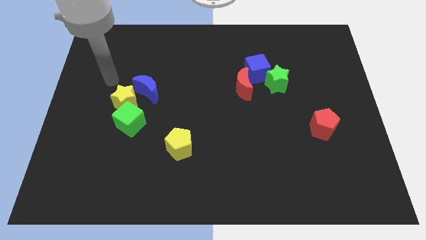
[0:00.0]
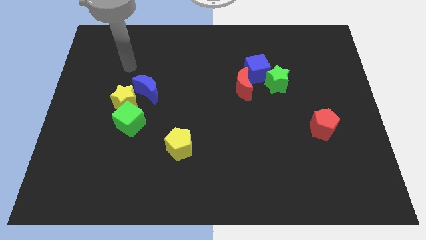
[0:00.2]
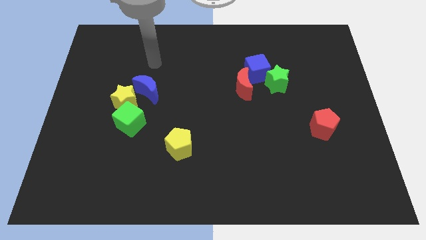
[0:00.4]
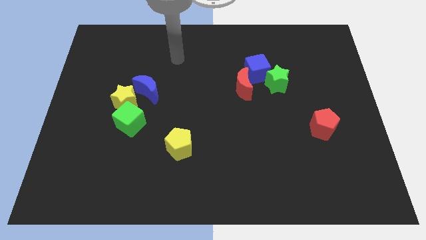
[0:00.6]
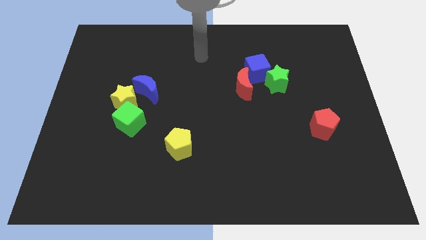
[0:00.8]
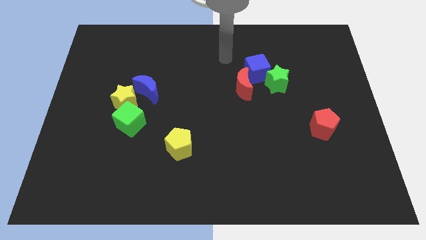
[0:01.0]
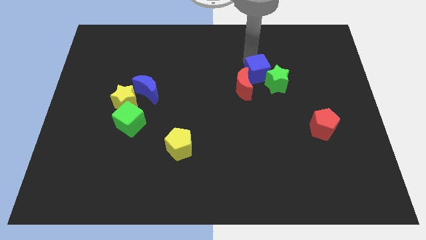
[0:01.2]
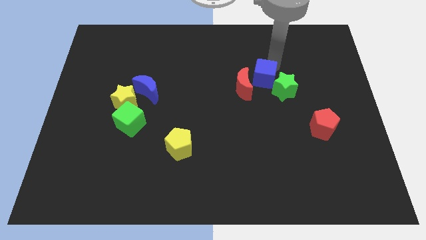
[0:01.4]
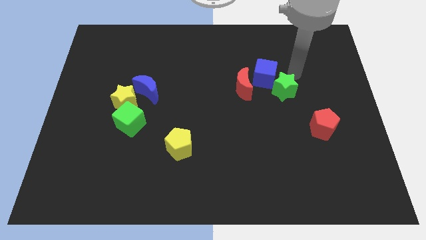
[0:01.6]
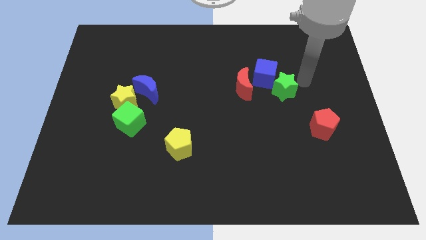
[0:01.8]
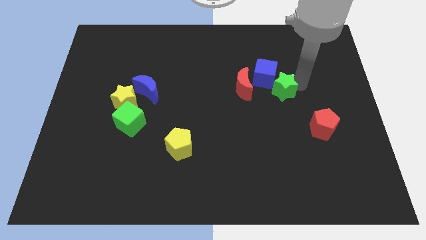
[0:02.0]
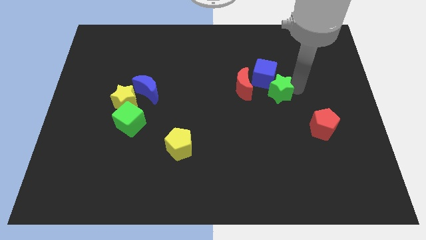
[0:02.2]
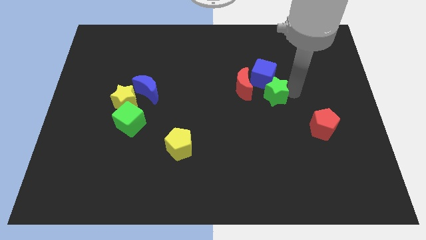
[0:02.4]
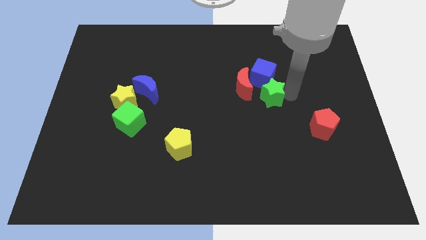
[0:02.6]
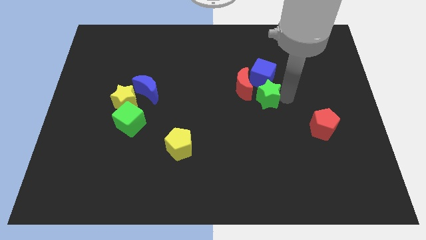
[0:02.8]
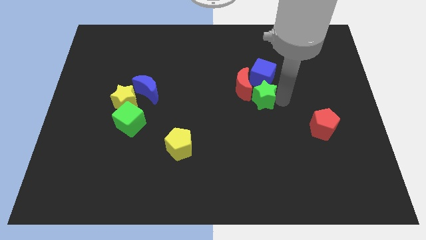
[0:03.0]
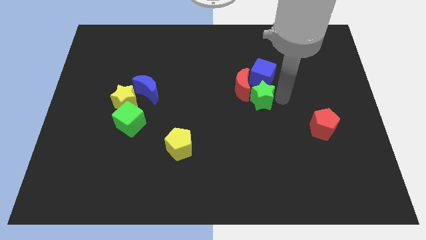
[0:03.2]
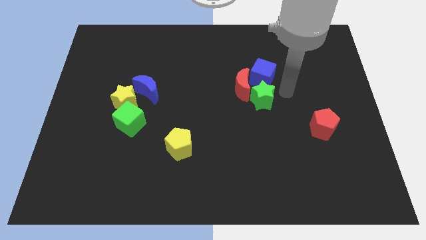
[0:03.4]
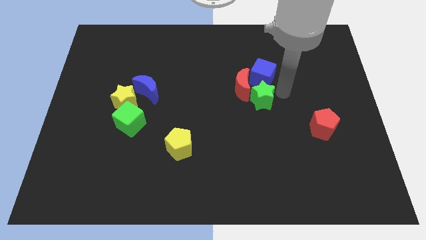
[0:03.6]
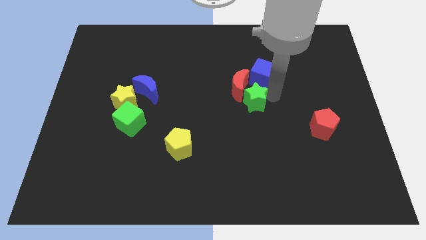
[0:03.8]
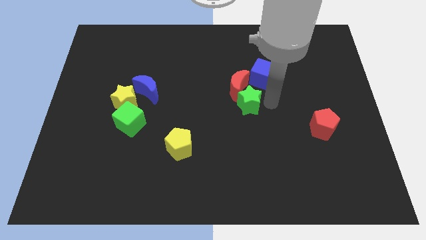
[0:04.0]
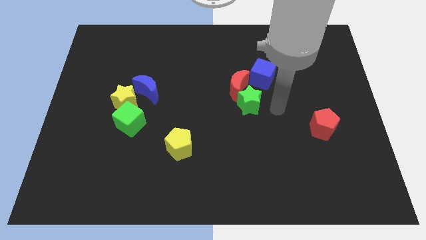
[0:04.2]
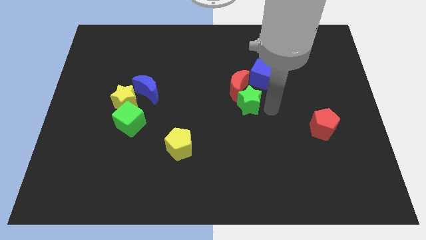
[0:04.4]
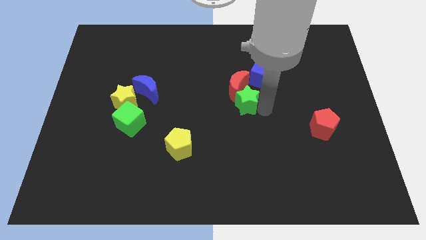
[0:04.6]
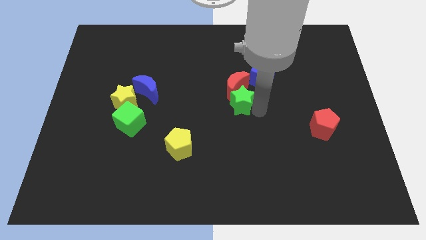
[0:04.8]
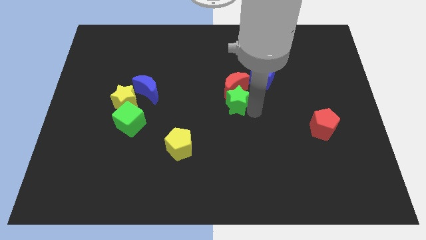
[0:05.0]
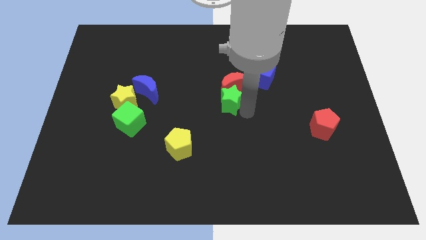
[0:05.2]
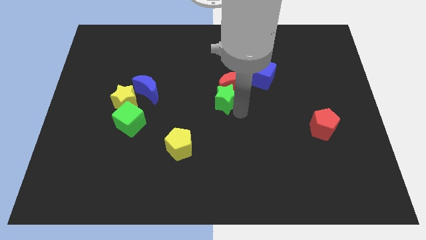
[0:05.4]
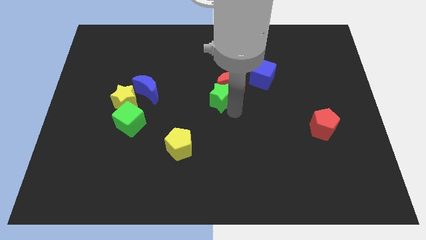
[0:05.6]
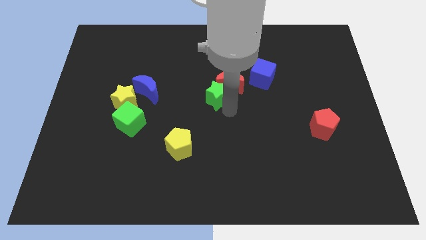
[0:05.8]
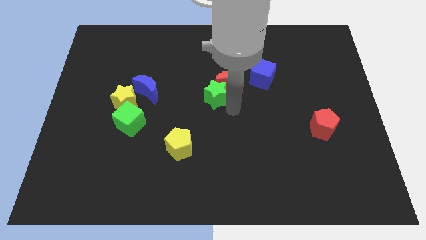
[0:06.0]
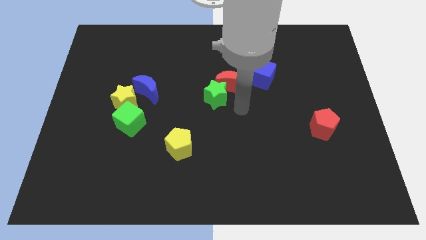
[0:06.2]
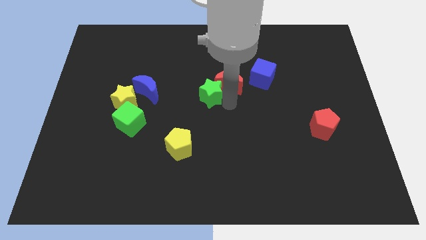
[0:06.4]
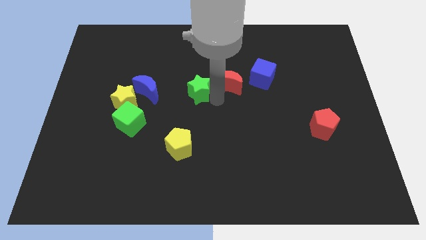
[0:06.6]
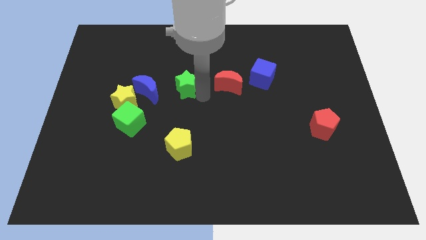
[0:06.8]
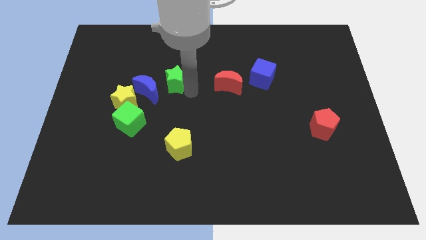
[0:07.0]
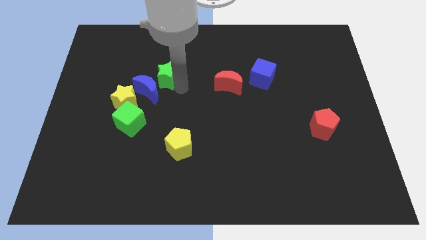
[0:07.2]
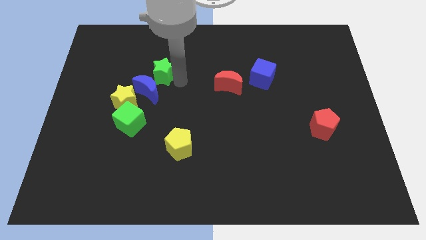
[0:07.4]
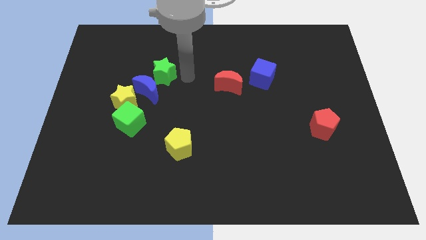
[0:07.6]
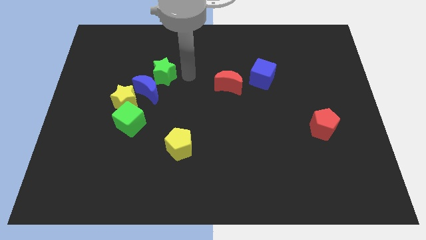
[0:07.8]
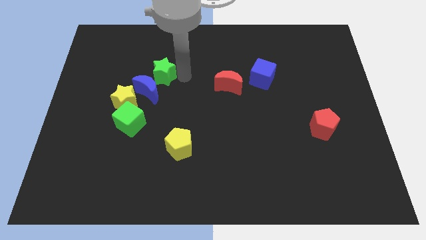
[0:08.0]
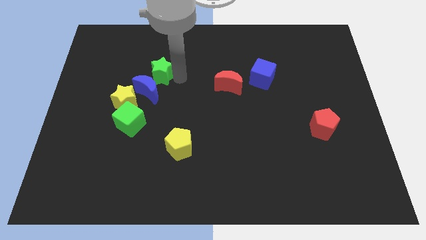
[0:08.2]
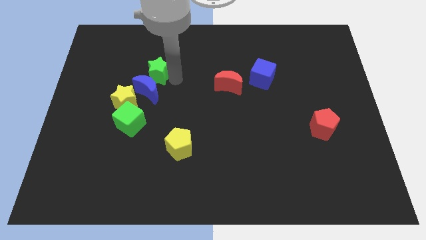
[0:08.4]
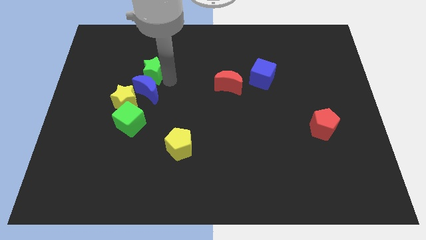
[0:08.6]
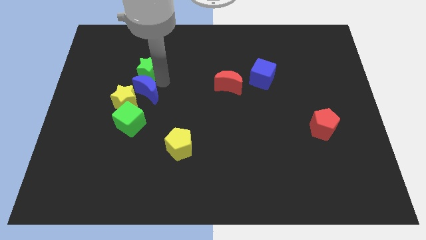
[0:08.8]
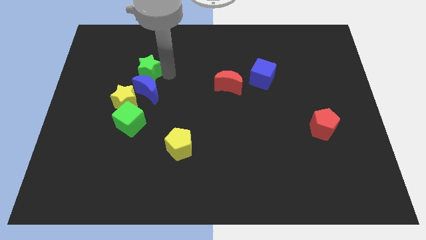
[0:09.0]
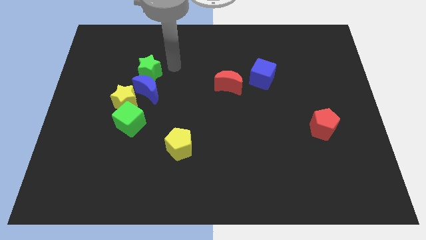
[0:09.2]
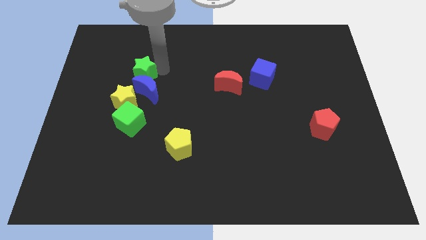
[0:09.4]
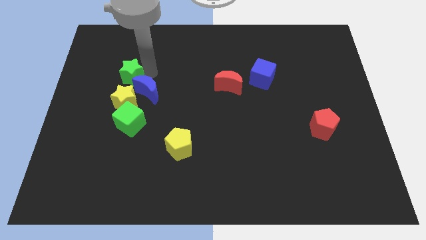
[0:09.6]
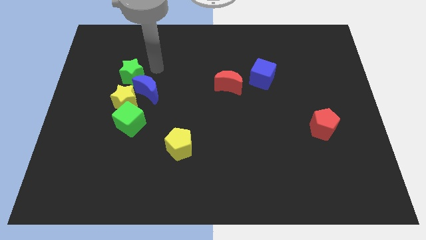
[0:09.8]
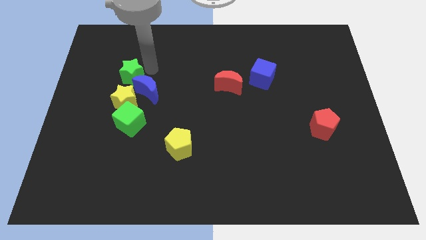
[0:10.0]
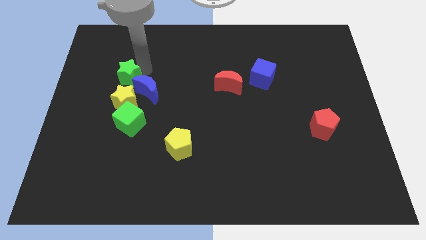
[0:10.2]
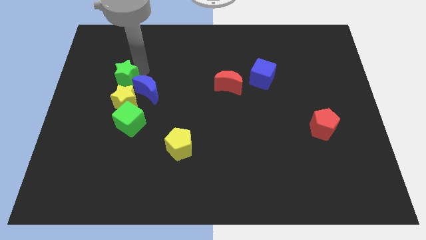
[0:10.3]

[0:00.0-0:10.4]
push the green star diagonally up and to the left of the yellow star

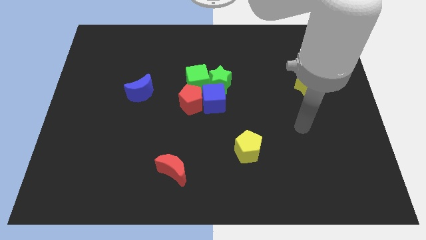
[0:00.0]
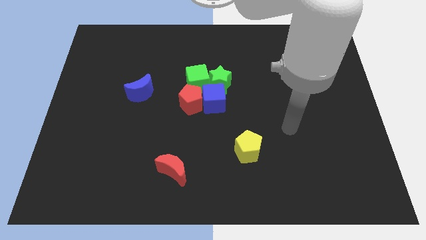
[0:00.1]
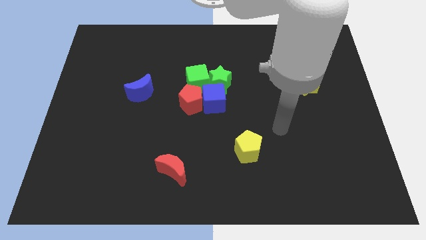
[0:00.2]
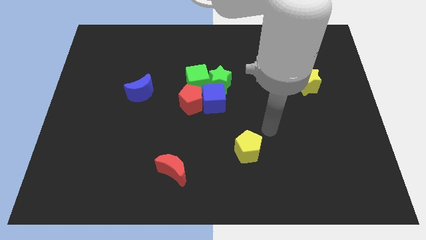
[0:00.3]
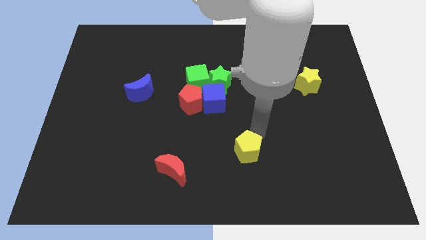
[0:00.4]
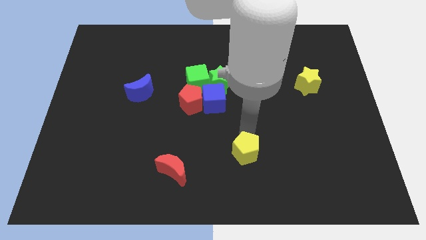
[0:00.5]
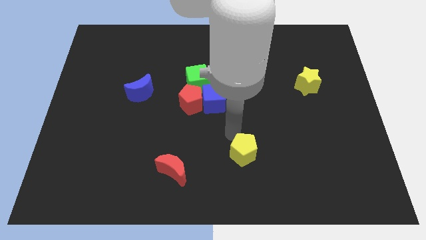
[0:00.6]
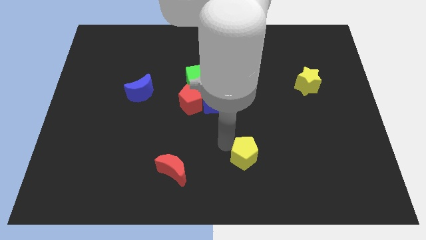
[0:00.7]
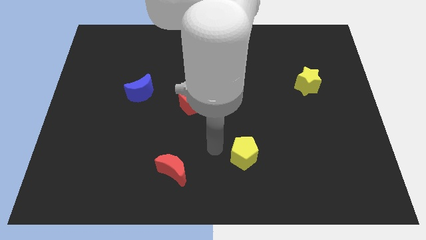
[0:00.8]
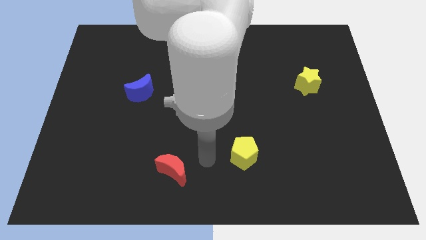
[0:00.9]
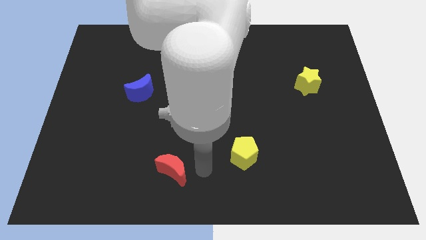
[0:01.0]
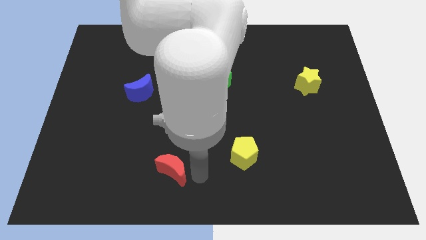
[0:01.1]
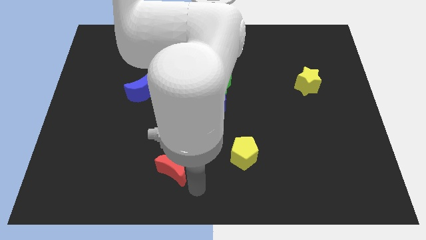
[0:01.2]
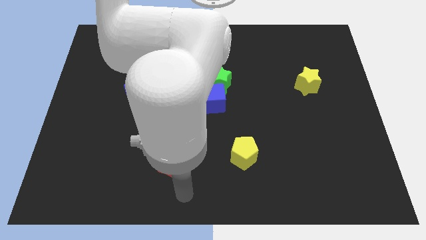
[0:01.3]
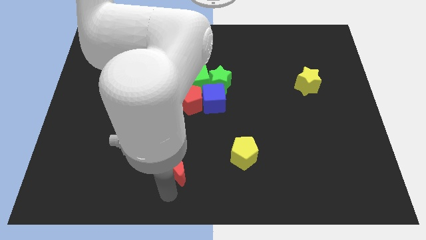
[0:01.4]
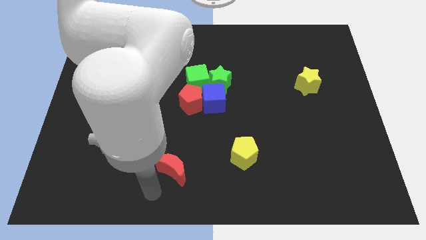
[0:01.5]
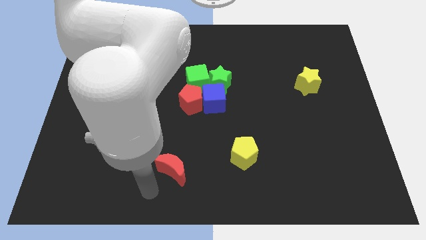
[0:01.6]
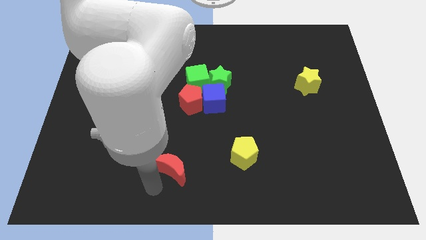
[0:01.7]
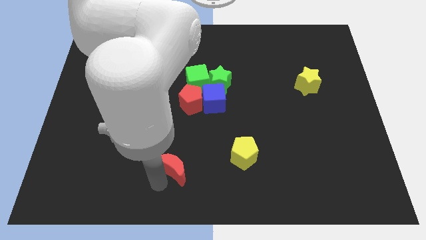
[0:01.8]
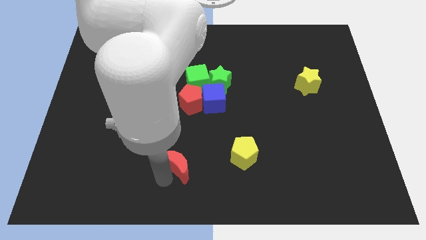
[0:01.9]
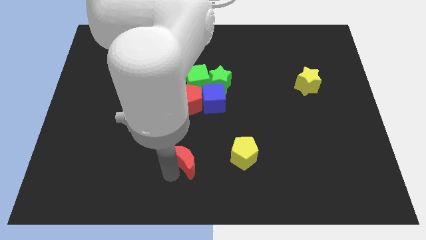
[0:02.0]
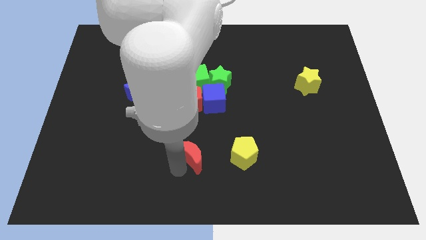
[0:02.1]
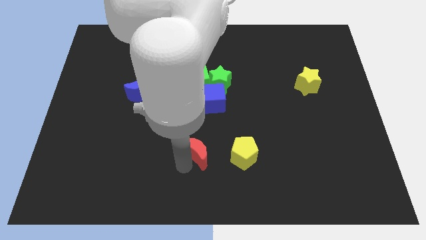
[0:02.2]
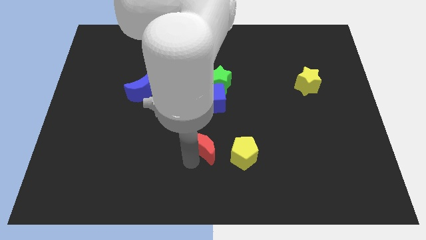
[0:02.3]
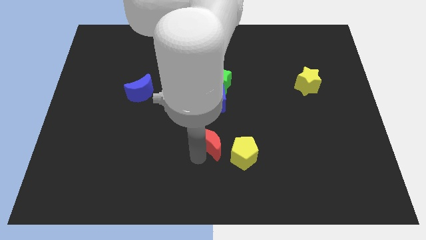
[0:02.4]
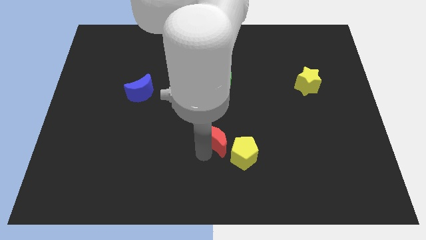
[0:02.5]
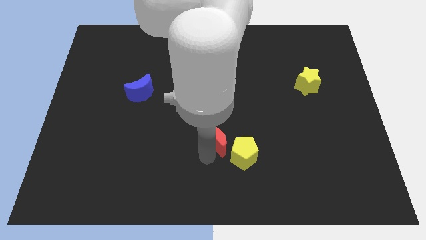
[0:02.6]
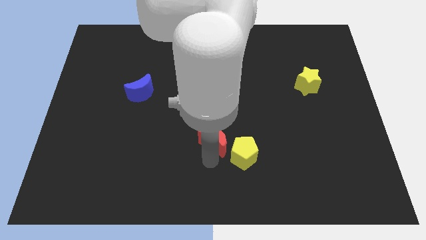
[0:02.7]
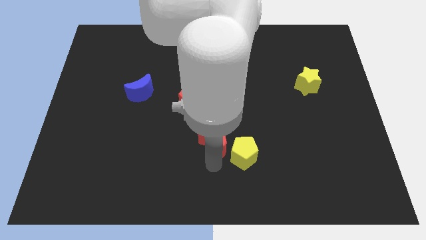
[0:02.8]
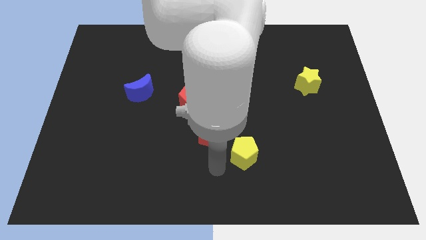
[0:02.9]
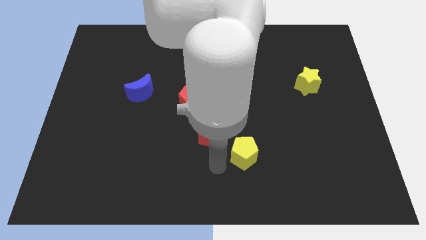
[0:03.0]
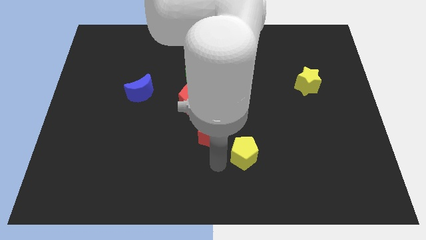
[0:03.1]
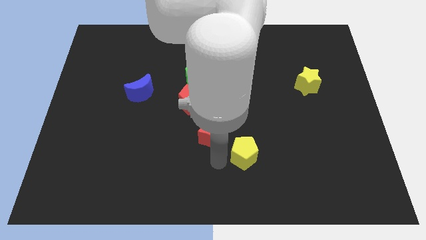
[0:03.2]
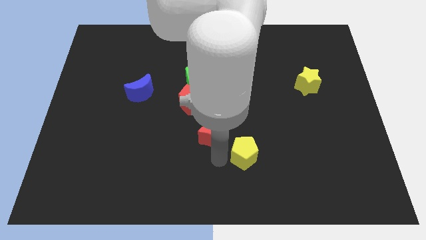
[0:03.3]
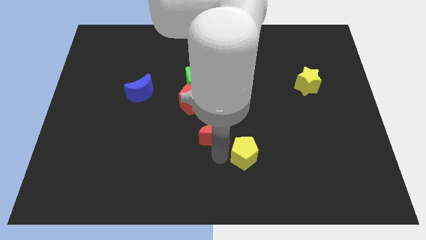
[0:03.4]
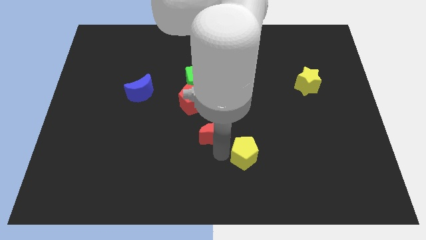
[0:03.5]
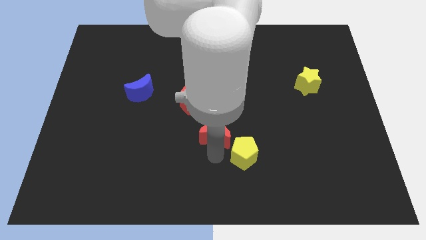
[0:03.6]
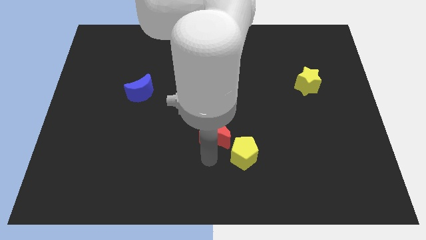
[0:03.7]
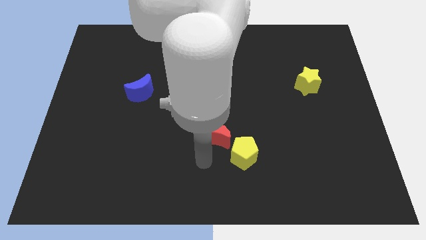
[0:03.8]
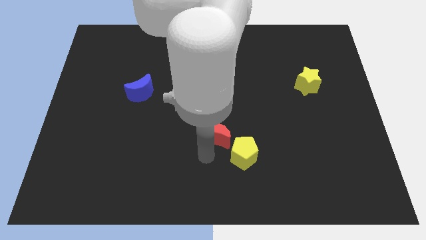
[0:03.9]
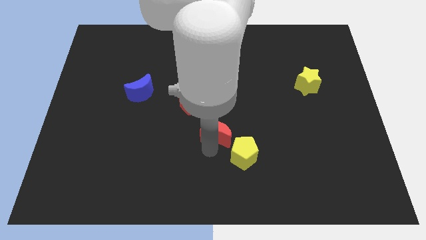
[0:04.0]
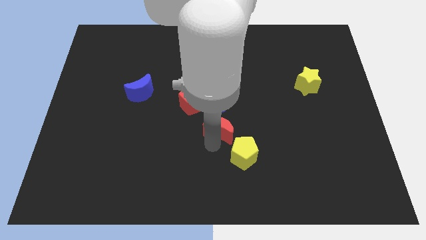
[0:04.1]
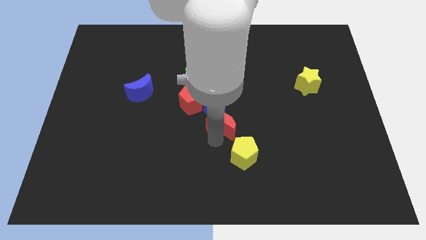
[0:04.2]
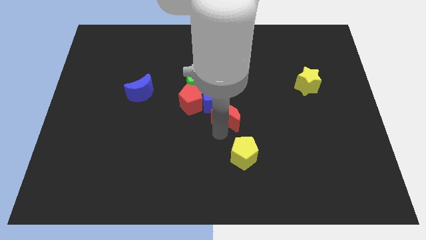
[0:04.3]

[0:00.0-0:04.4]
slide the red moon to the right side of the red pentagon
